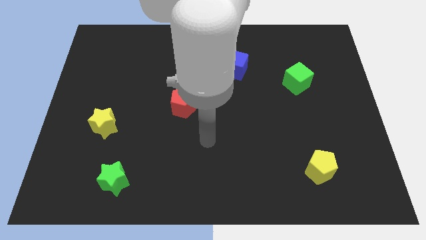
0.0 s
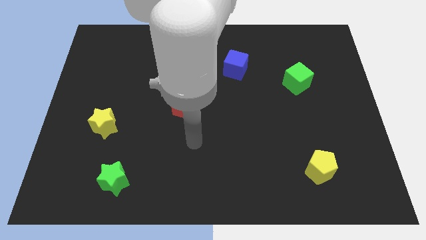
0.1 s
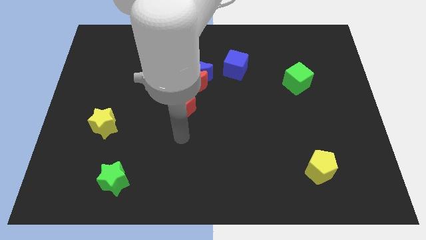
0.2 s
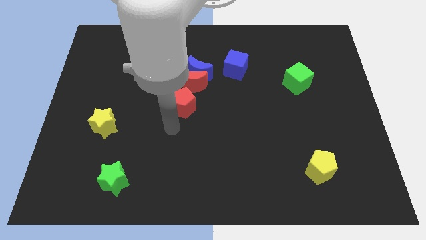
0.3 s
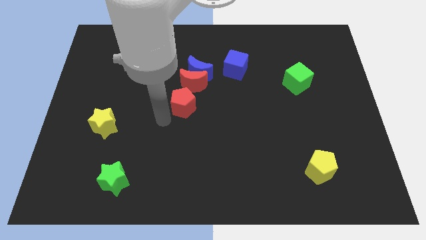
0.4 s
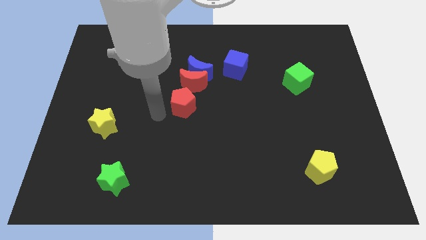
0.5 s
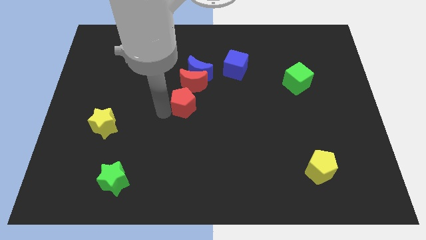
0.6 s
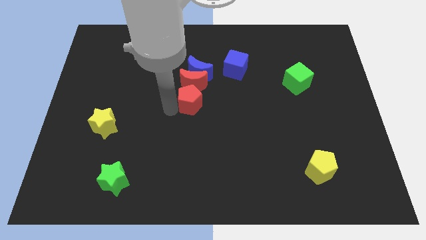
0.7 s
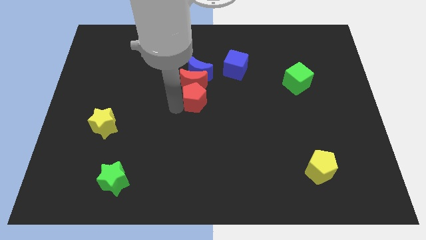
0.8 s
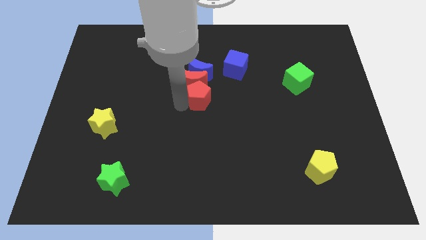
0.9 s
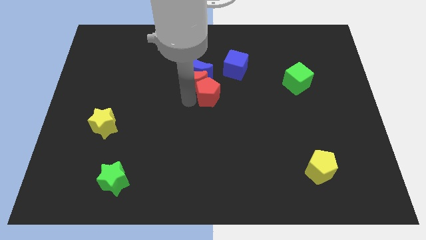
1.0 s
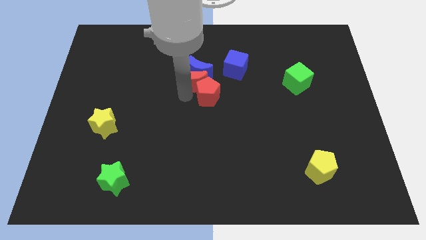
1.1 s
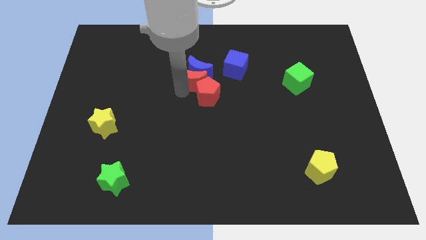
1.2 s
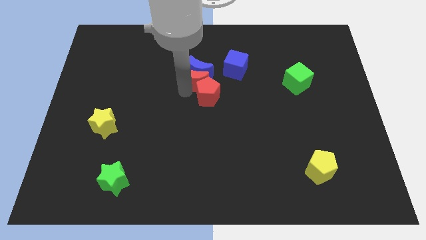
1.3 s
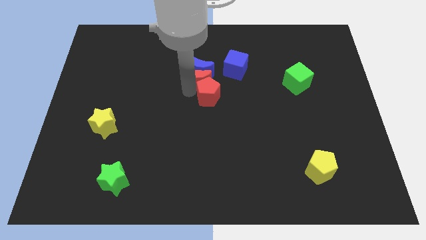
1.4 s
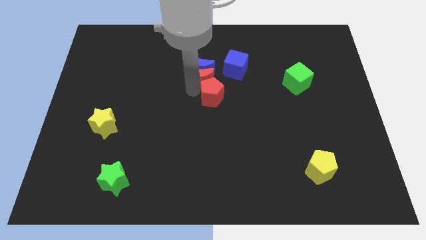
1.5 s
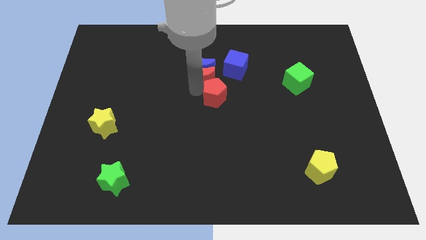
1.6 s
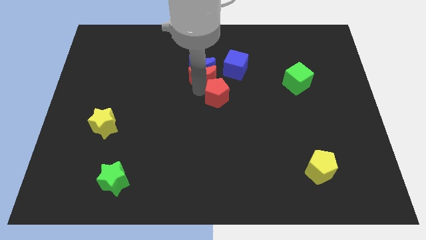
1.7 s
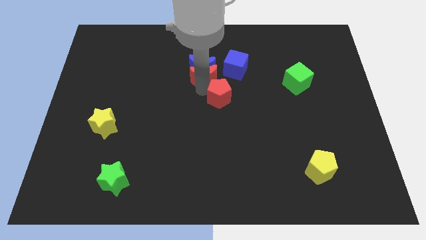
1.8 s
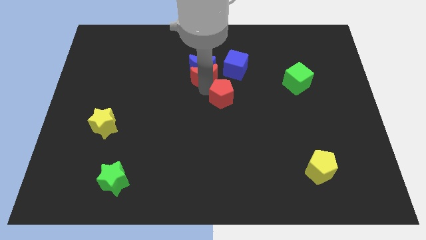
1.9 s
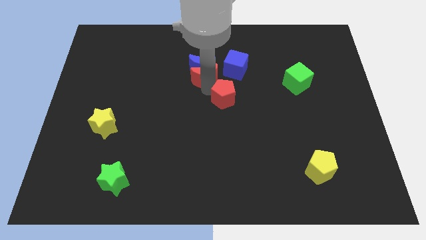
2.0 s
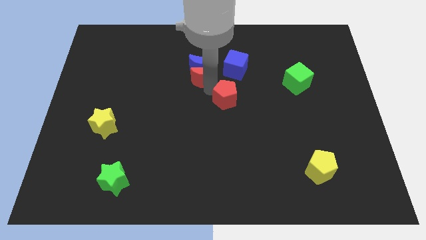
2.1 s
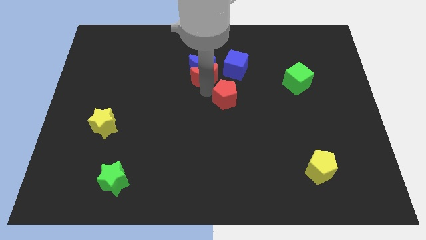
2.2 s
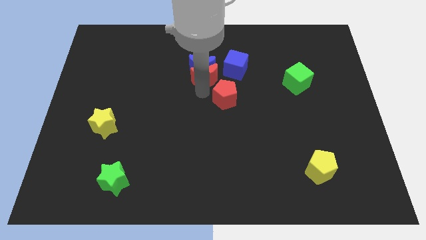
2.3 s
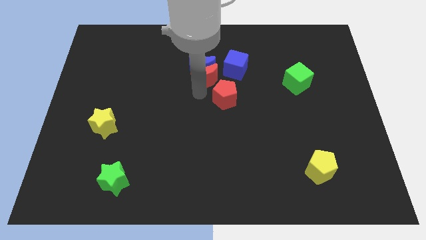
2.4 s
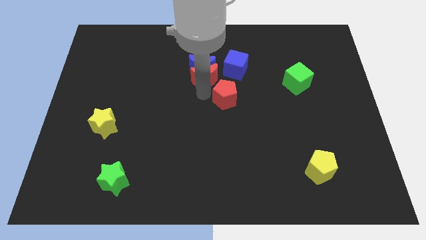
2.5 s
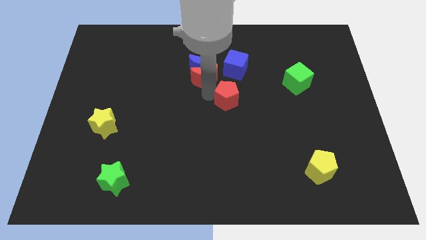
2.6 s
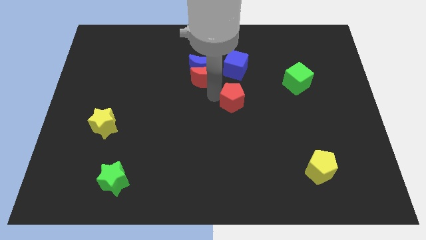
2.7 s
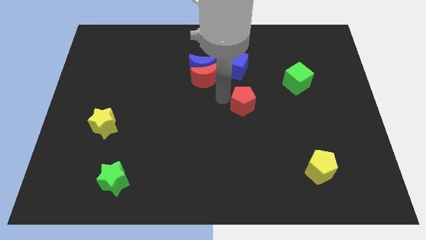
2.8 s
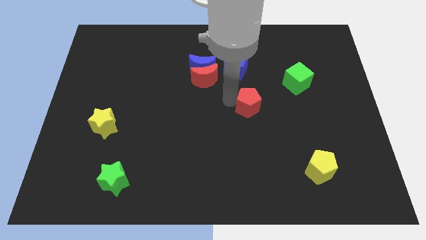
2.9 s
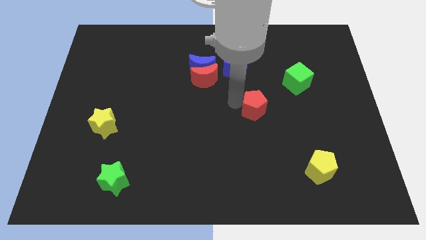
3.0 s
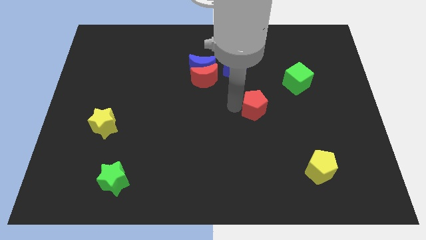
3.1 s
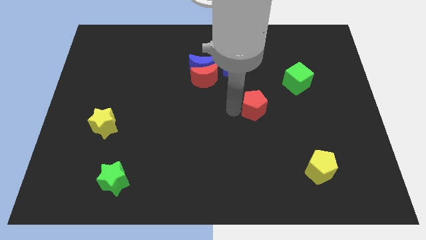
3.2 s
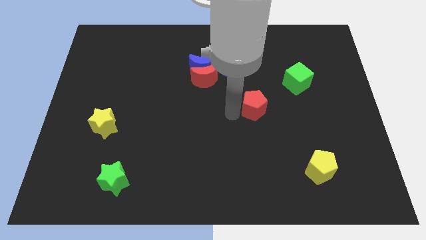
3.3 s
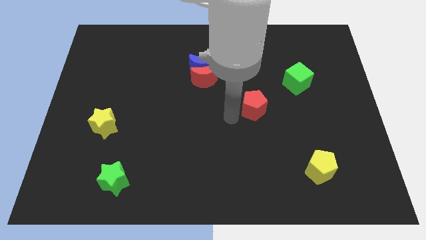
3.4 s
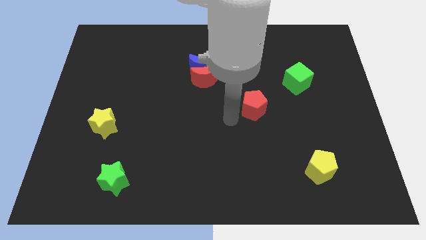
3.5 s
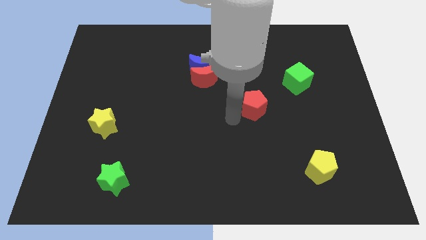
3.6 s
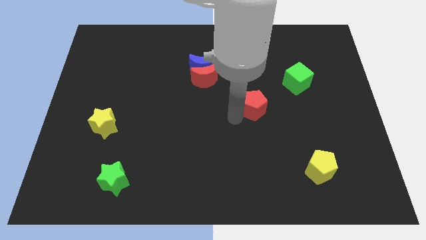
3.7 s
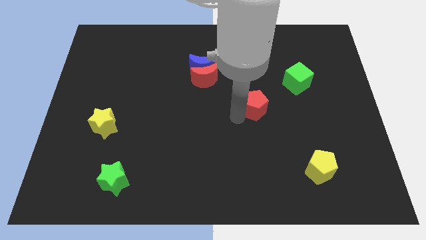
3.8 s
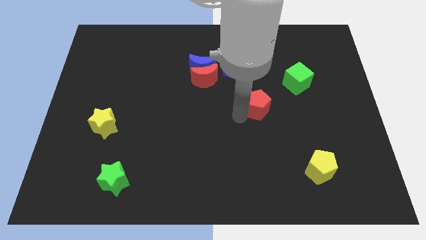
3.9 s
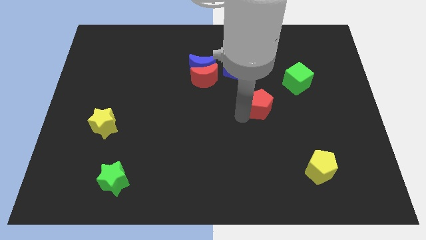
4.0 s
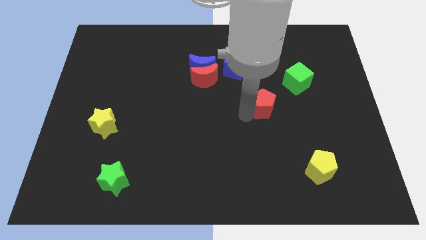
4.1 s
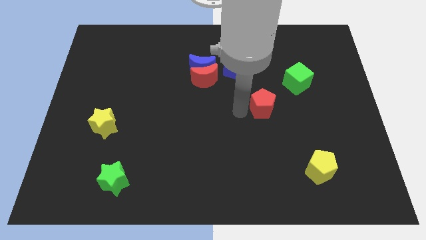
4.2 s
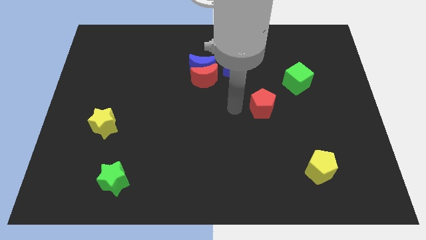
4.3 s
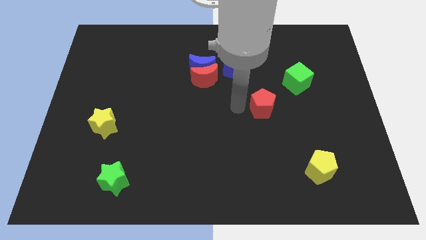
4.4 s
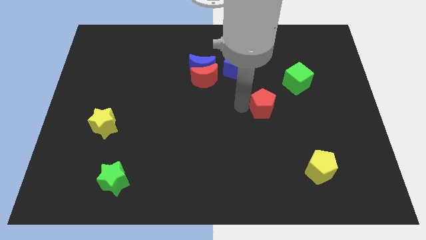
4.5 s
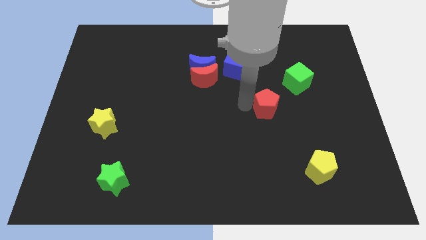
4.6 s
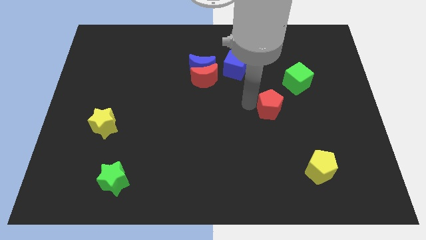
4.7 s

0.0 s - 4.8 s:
slide the red pentagon right

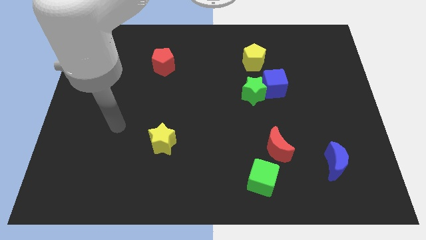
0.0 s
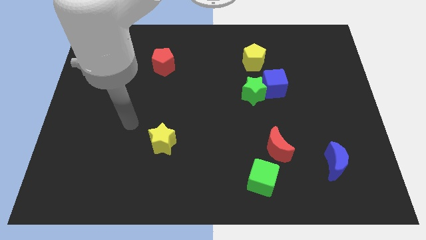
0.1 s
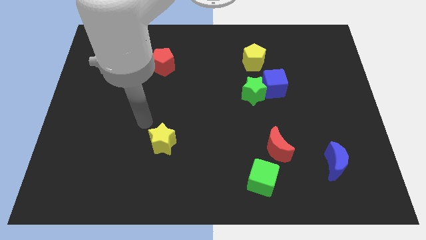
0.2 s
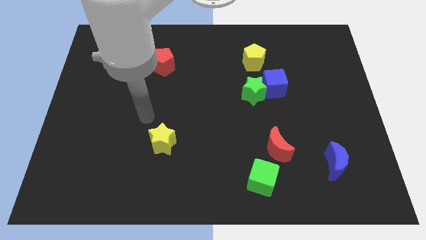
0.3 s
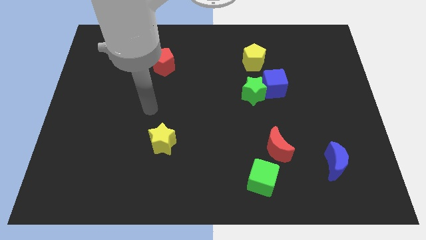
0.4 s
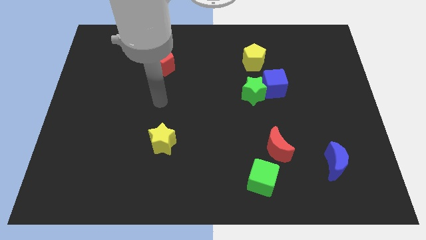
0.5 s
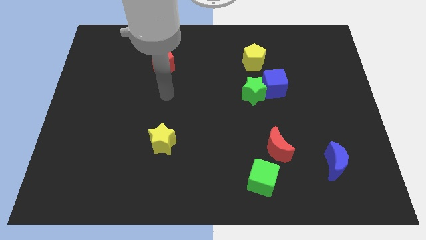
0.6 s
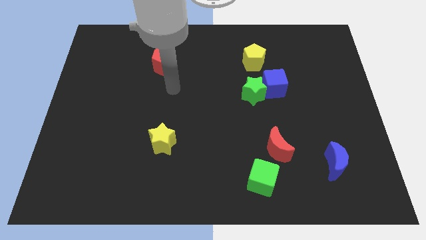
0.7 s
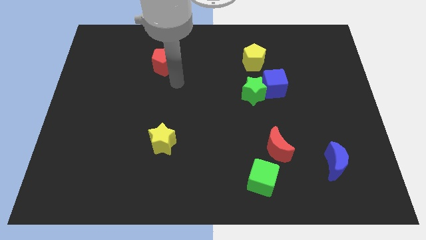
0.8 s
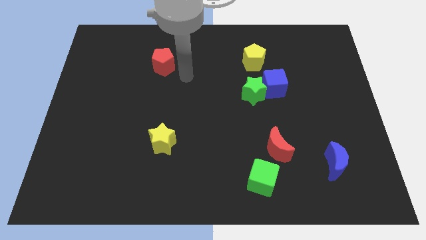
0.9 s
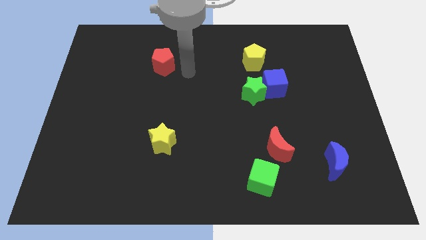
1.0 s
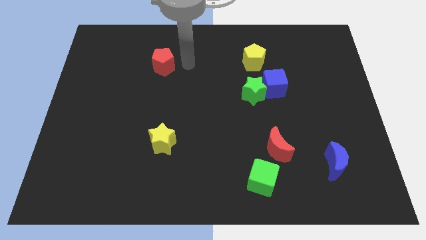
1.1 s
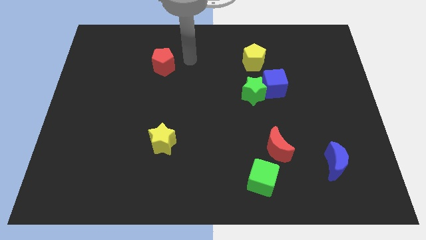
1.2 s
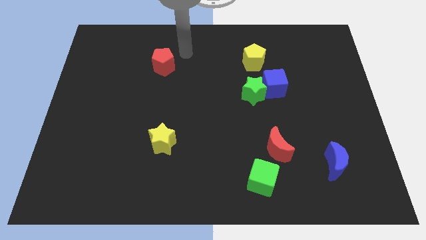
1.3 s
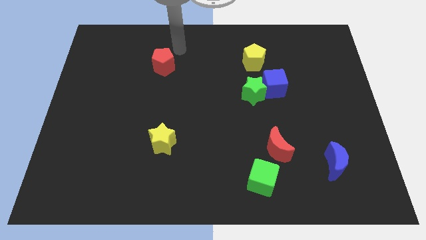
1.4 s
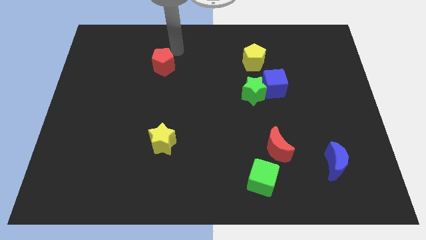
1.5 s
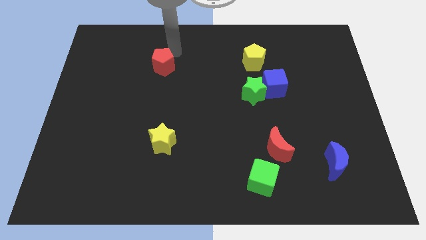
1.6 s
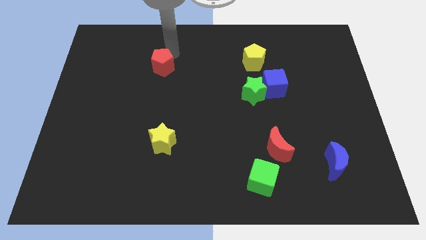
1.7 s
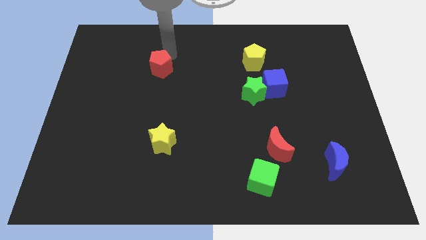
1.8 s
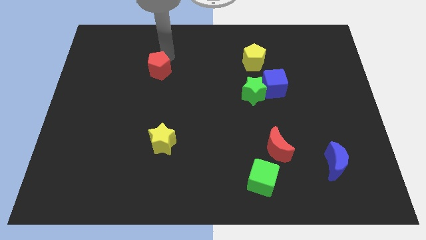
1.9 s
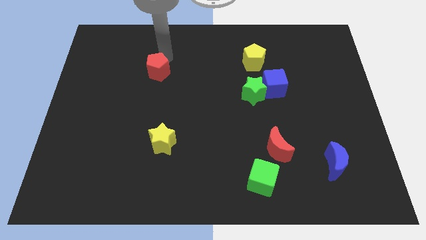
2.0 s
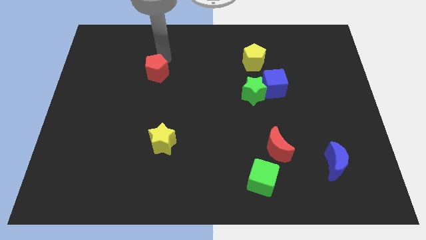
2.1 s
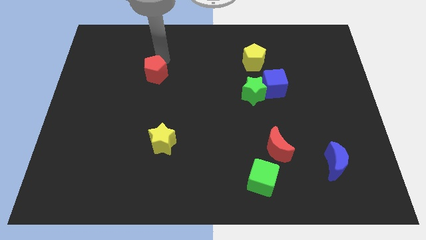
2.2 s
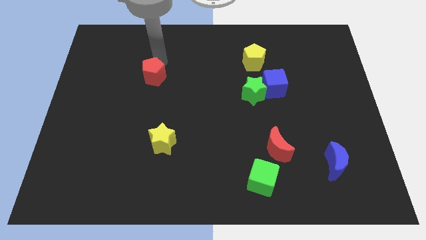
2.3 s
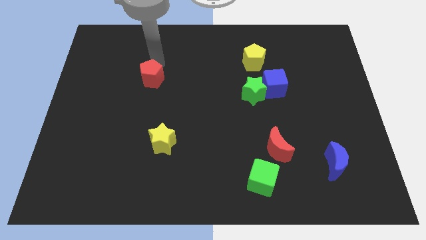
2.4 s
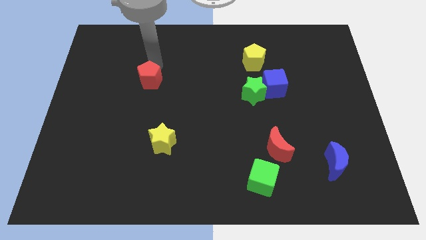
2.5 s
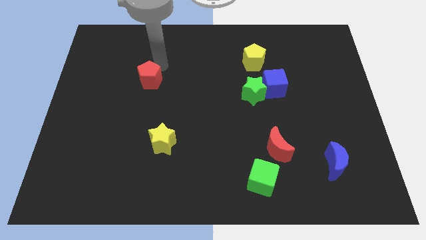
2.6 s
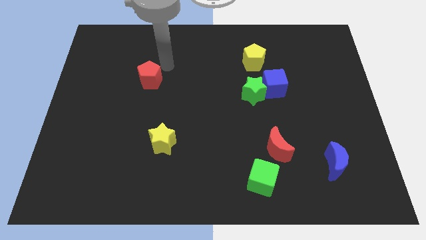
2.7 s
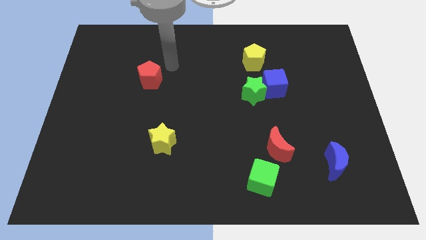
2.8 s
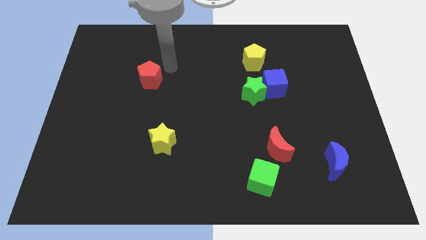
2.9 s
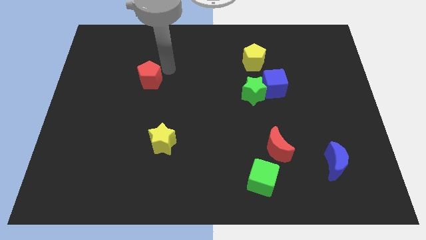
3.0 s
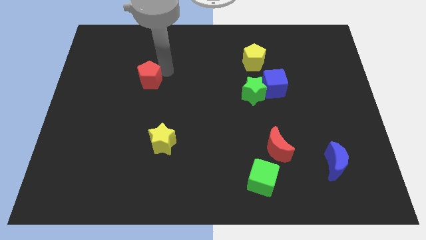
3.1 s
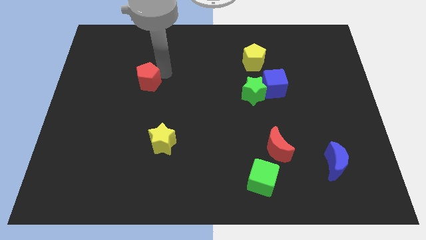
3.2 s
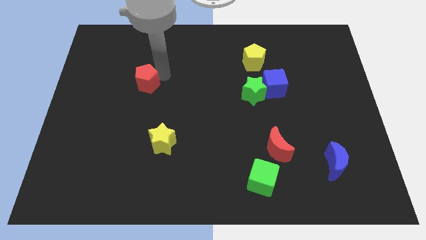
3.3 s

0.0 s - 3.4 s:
slide the red pentagon somewhat downwards and then to the left
